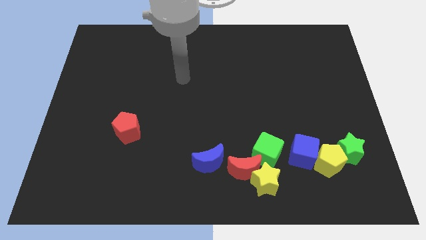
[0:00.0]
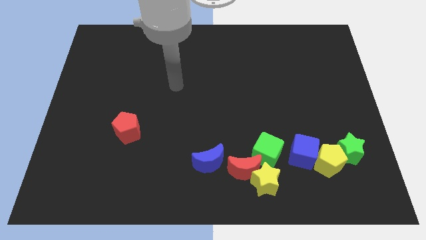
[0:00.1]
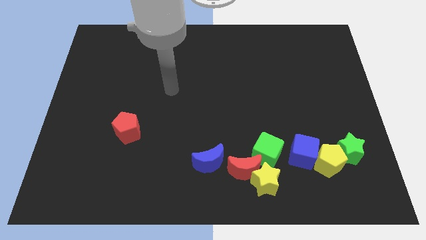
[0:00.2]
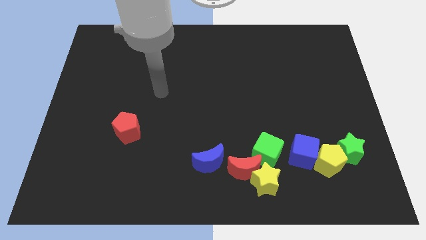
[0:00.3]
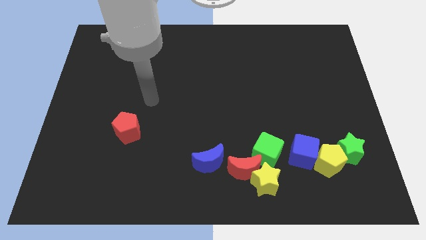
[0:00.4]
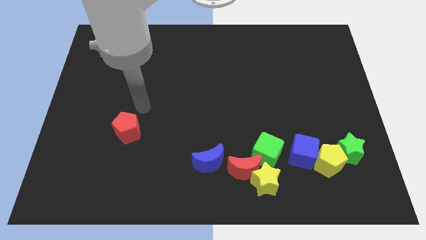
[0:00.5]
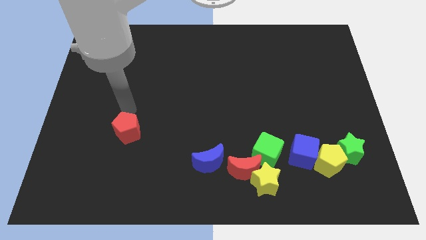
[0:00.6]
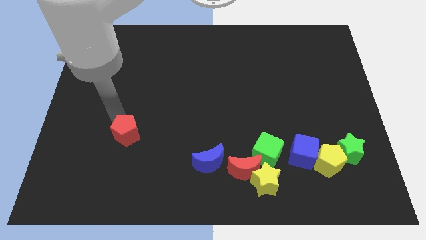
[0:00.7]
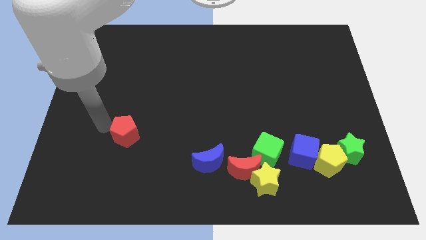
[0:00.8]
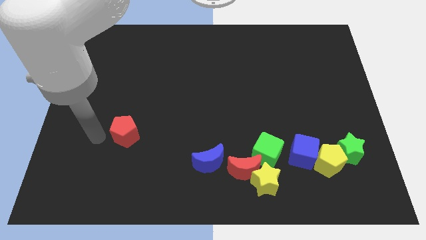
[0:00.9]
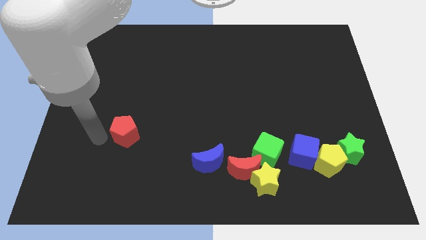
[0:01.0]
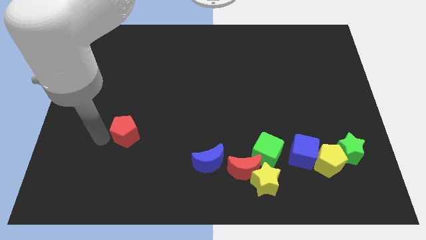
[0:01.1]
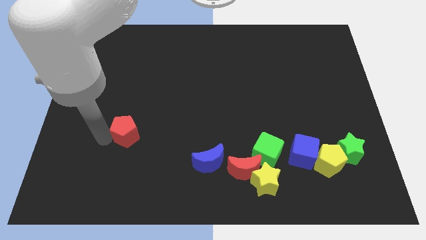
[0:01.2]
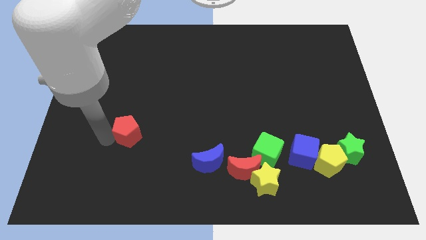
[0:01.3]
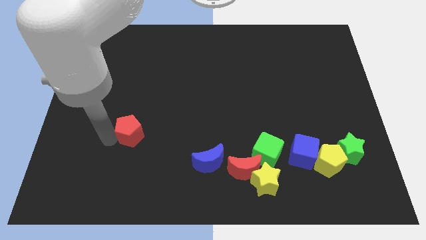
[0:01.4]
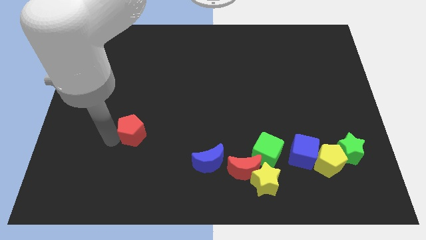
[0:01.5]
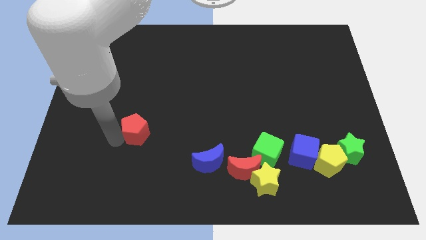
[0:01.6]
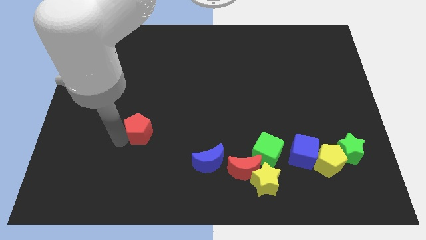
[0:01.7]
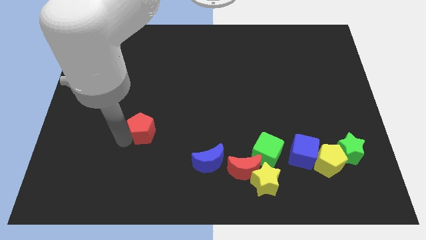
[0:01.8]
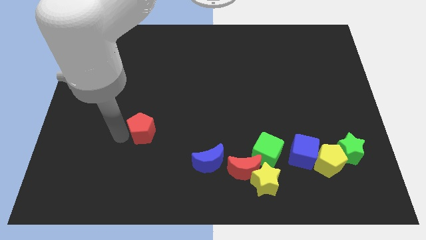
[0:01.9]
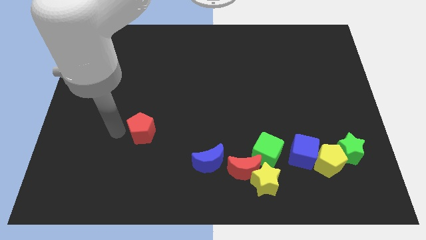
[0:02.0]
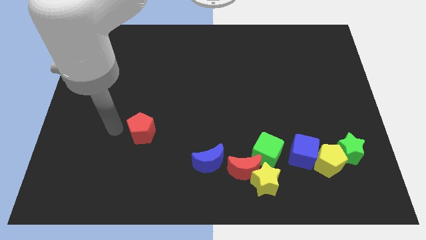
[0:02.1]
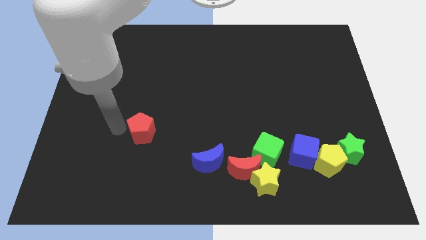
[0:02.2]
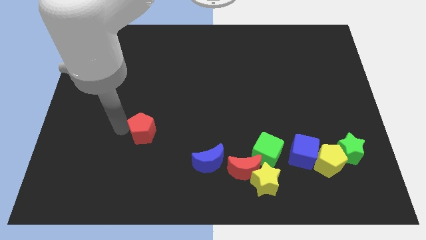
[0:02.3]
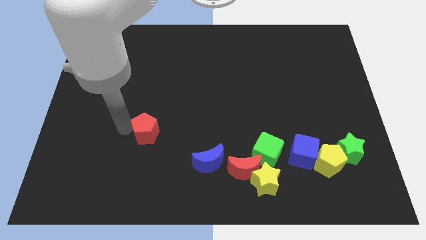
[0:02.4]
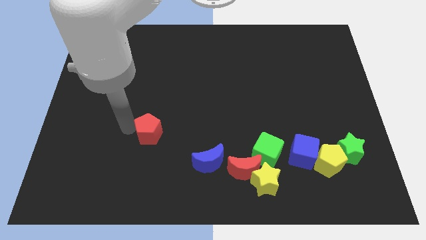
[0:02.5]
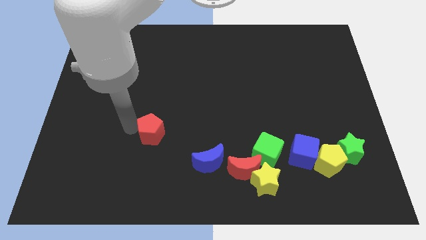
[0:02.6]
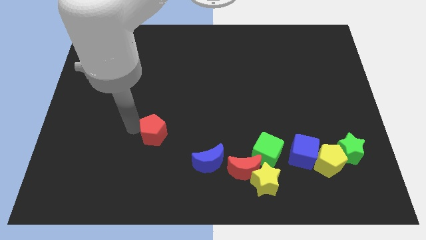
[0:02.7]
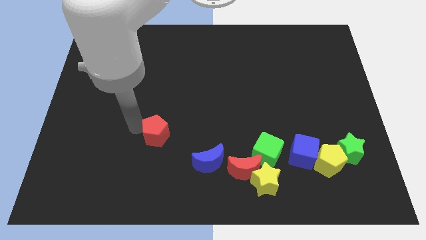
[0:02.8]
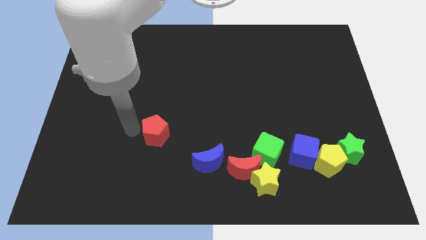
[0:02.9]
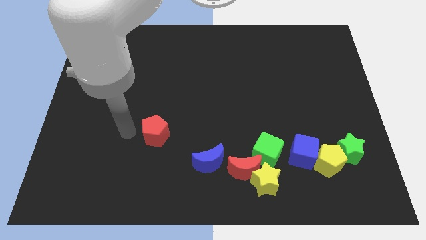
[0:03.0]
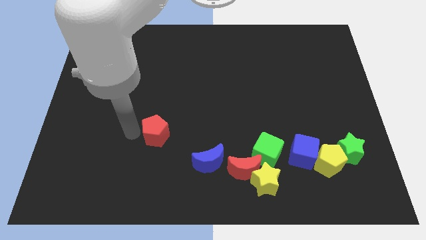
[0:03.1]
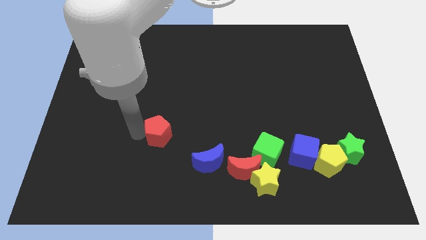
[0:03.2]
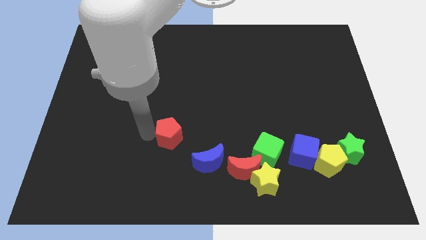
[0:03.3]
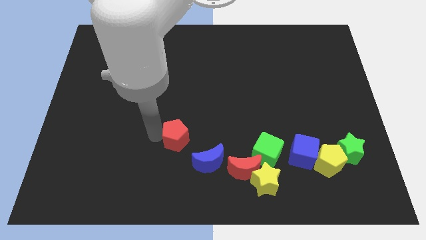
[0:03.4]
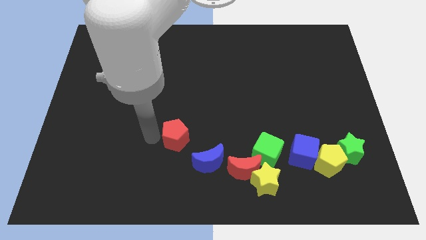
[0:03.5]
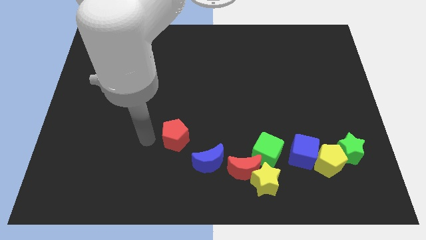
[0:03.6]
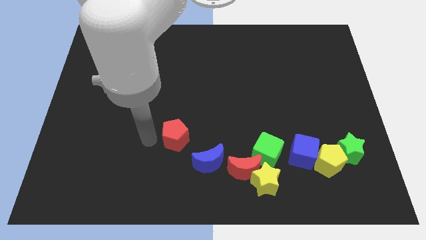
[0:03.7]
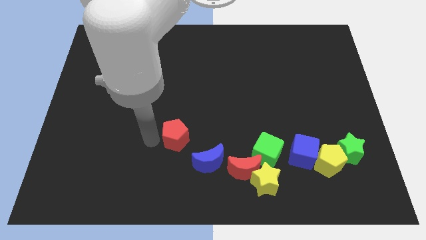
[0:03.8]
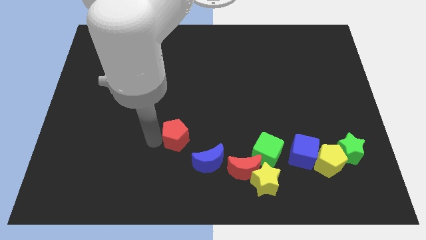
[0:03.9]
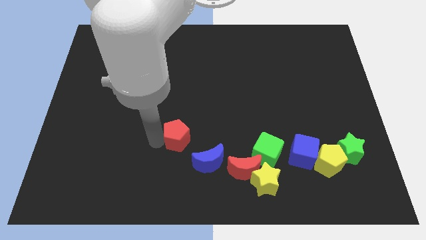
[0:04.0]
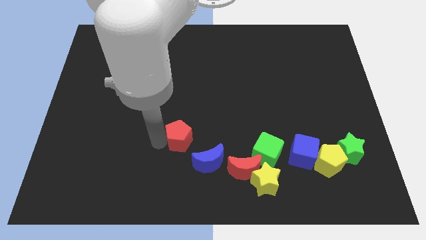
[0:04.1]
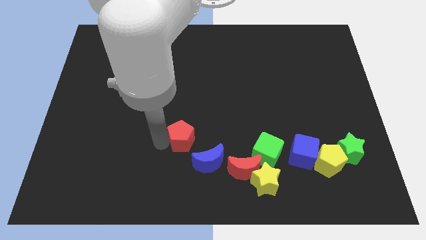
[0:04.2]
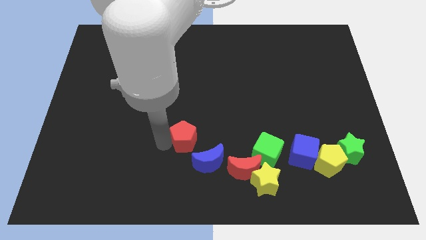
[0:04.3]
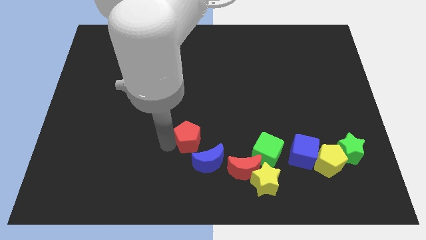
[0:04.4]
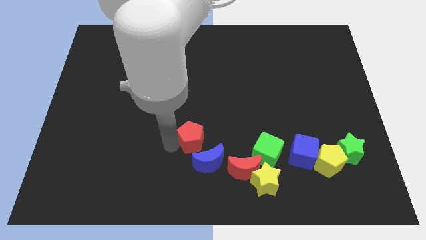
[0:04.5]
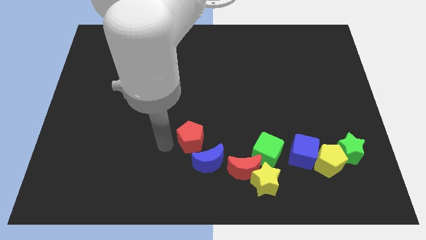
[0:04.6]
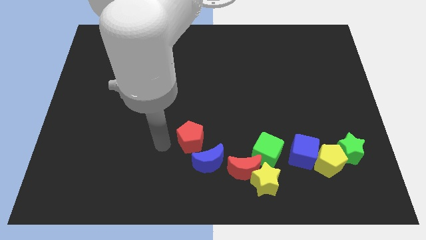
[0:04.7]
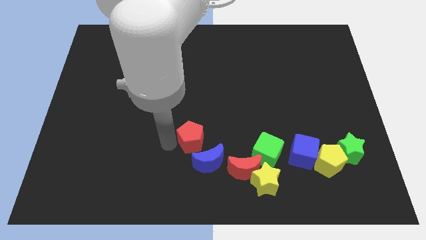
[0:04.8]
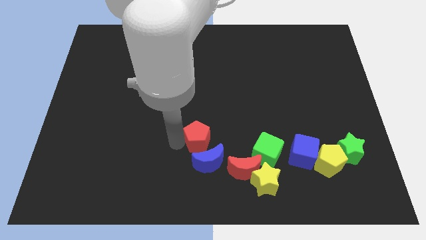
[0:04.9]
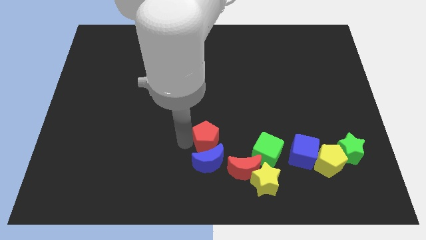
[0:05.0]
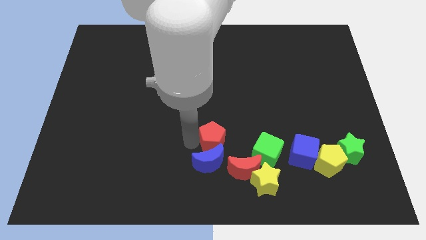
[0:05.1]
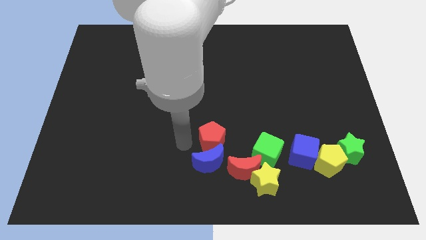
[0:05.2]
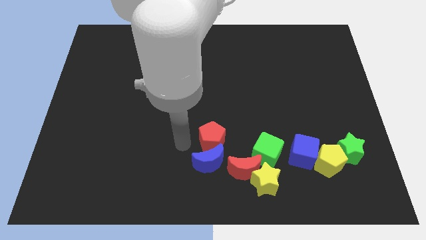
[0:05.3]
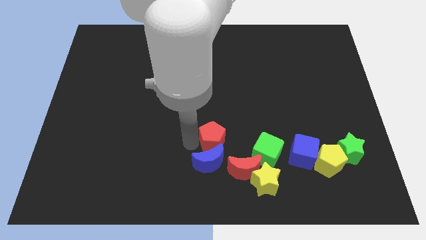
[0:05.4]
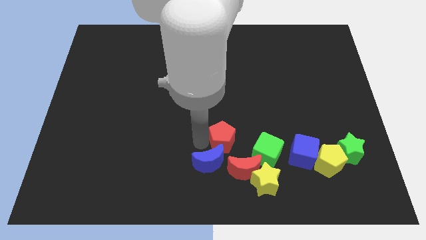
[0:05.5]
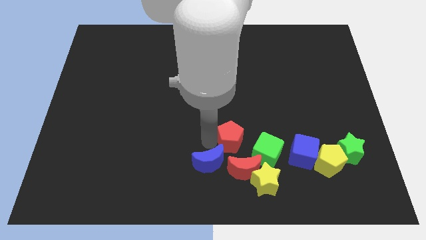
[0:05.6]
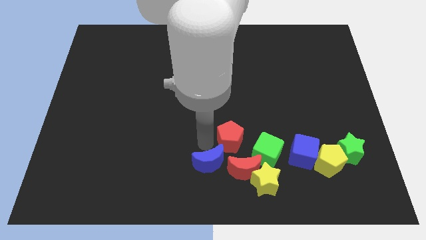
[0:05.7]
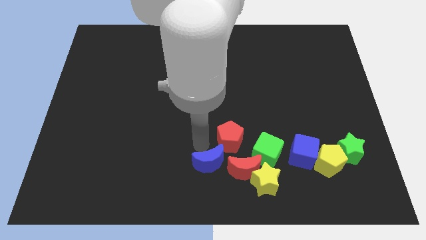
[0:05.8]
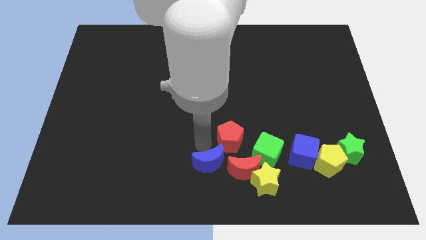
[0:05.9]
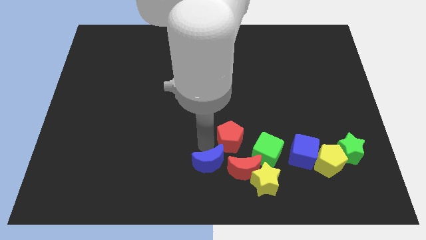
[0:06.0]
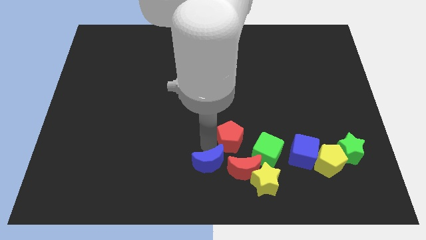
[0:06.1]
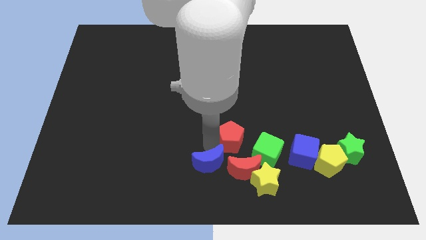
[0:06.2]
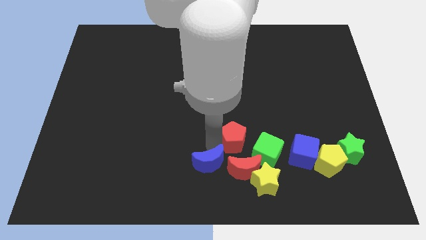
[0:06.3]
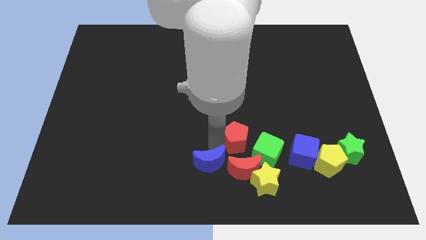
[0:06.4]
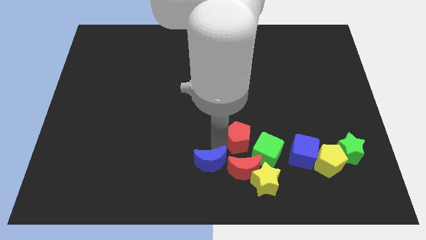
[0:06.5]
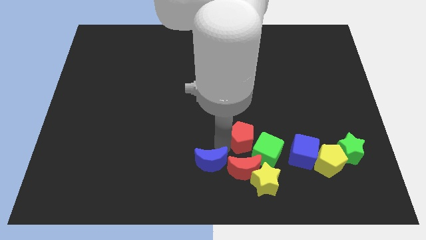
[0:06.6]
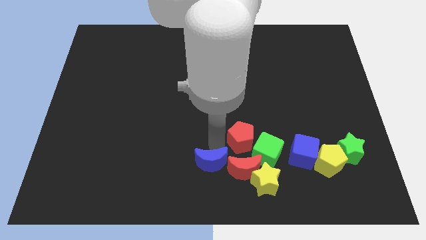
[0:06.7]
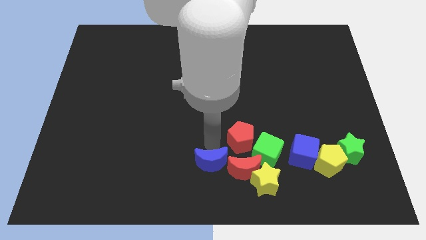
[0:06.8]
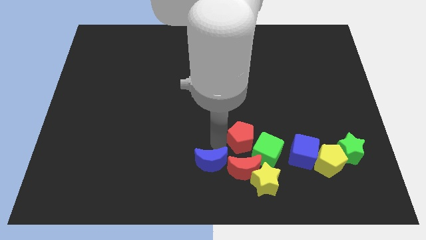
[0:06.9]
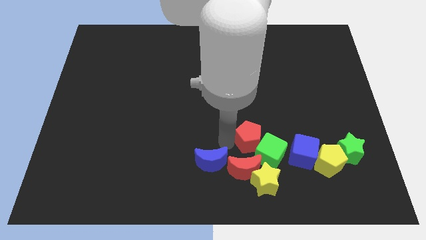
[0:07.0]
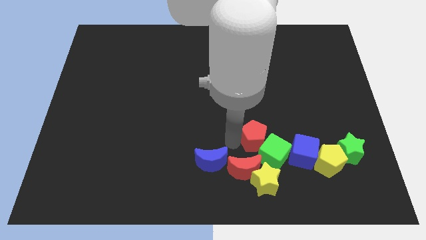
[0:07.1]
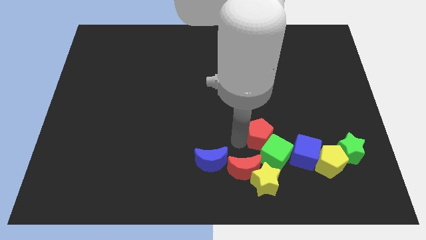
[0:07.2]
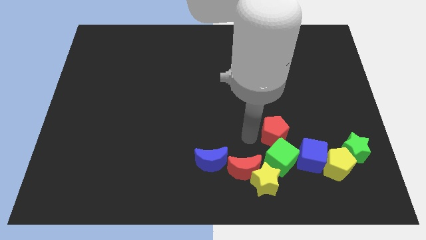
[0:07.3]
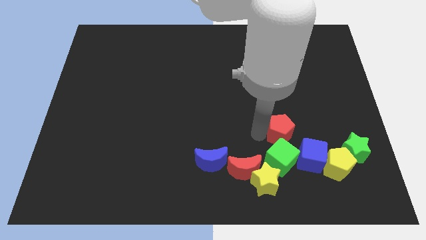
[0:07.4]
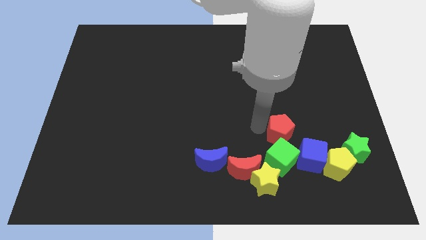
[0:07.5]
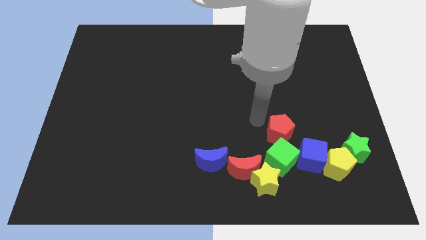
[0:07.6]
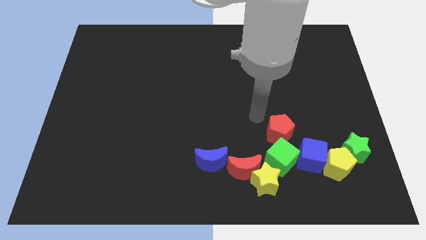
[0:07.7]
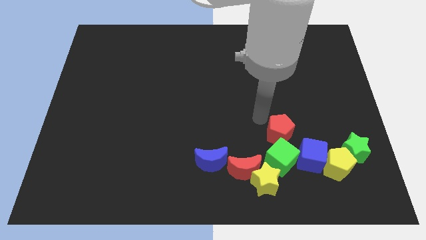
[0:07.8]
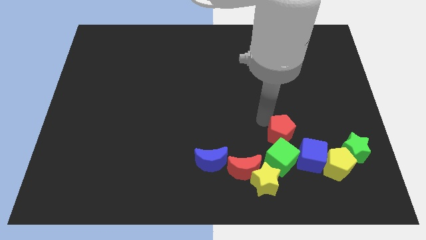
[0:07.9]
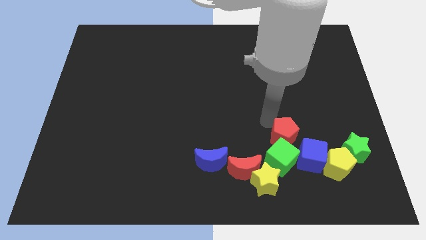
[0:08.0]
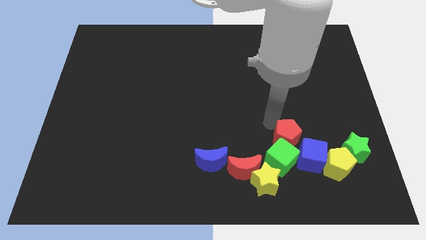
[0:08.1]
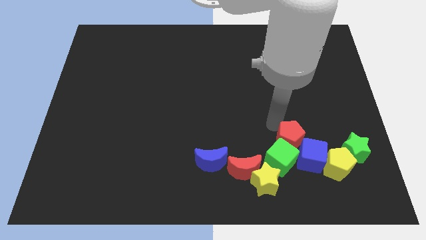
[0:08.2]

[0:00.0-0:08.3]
put the red pentagon next to the blue cube
